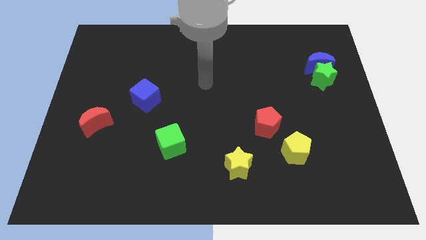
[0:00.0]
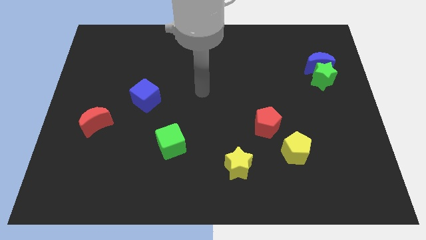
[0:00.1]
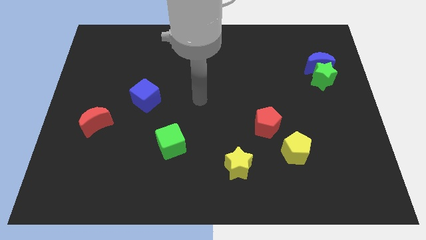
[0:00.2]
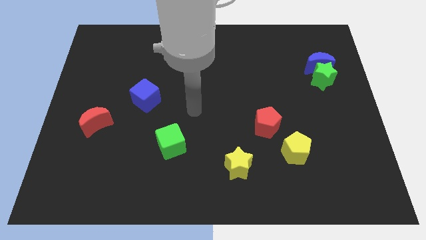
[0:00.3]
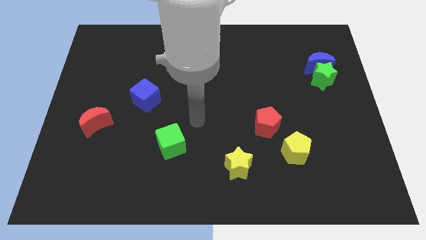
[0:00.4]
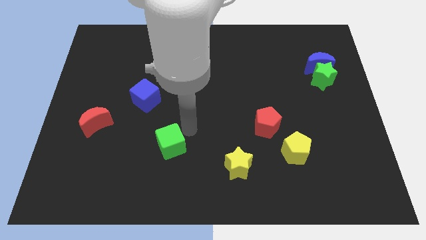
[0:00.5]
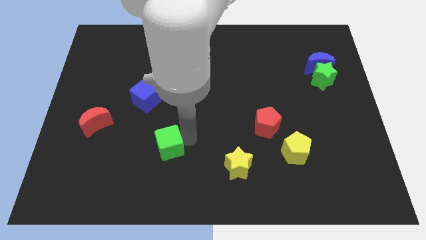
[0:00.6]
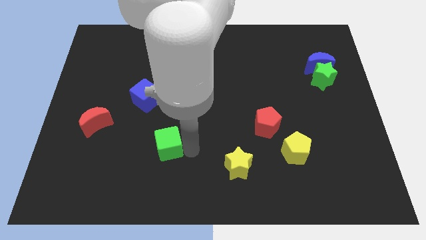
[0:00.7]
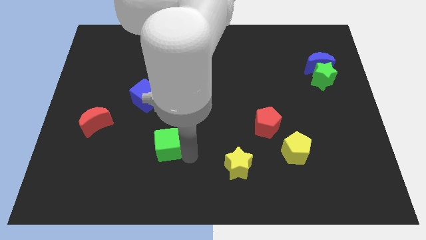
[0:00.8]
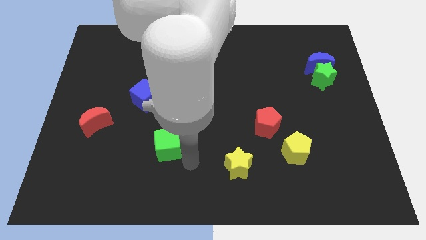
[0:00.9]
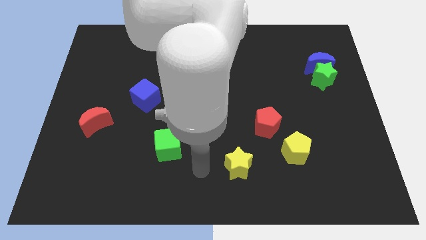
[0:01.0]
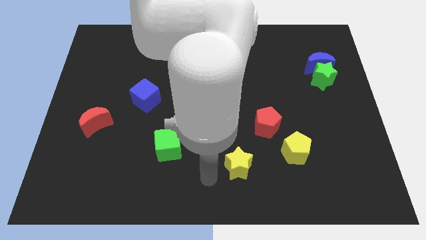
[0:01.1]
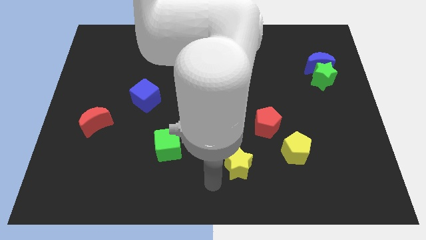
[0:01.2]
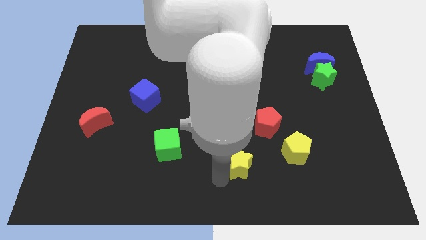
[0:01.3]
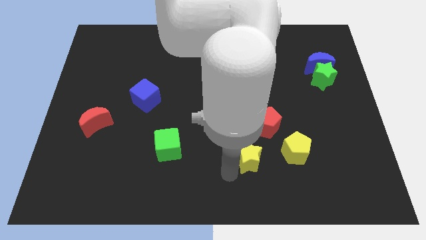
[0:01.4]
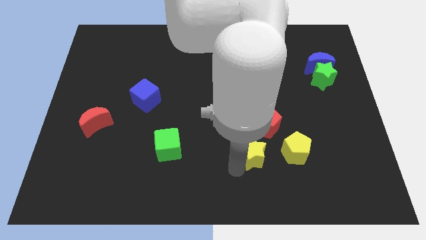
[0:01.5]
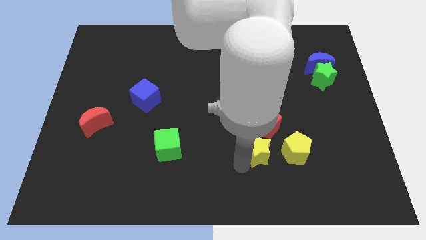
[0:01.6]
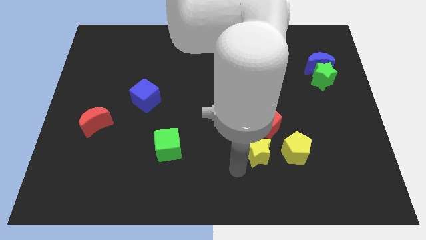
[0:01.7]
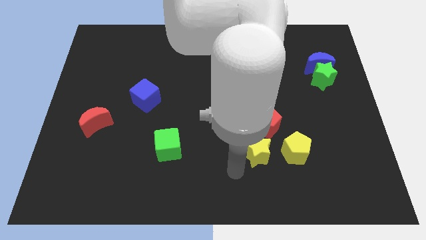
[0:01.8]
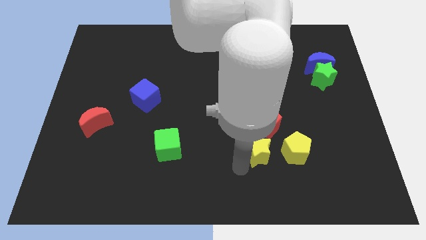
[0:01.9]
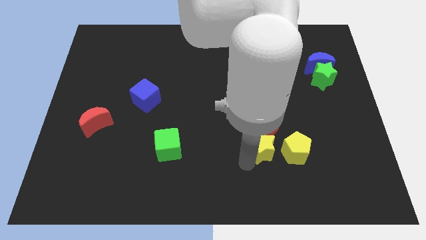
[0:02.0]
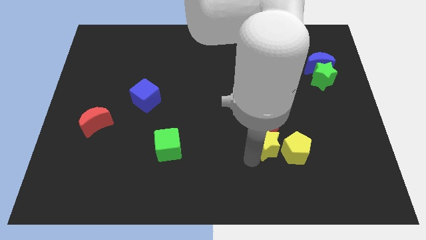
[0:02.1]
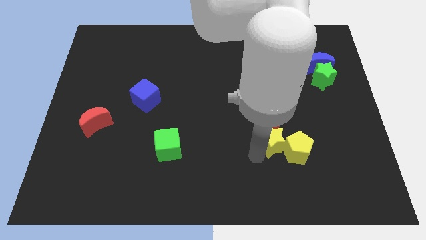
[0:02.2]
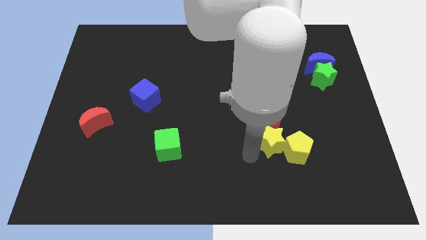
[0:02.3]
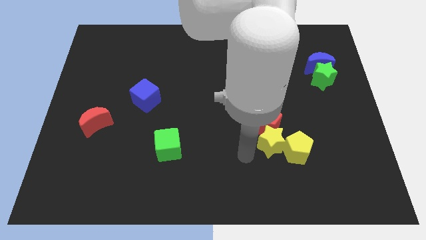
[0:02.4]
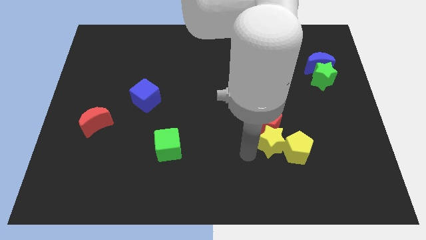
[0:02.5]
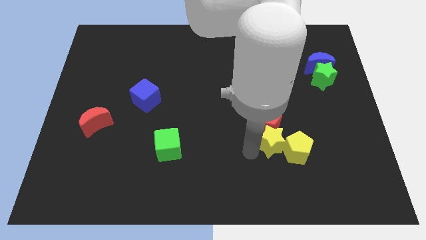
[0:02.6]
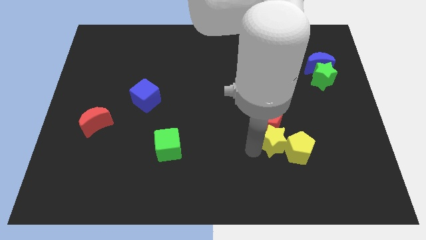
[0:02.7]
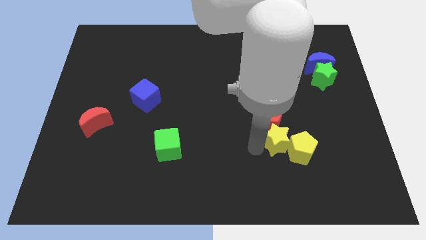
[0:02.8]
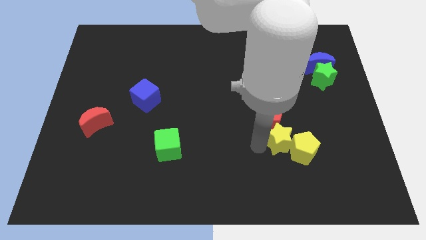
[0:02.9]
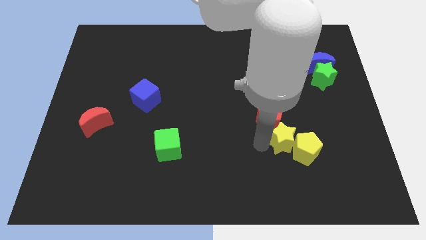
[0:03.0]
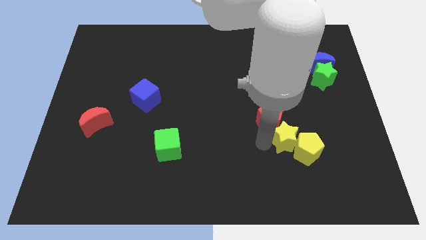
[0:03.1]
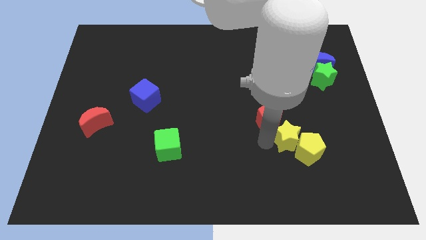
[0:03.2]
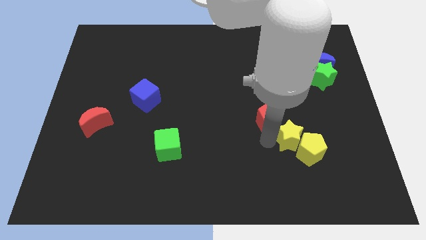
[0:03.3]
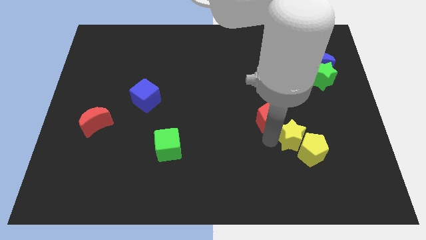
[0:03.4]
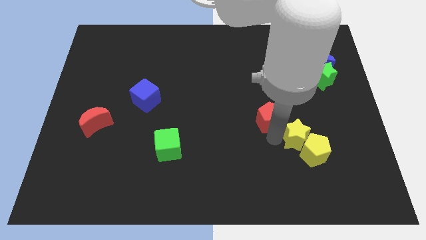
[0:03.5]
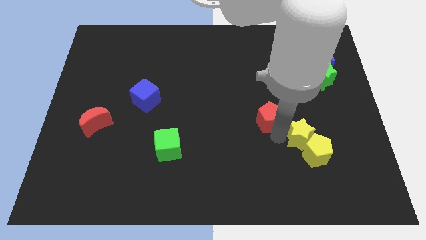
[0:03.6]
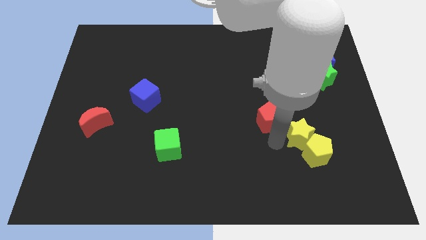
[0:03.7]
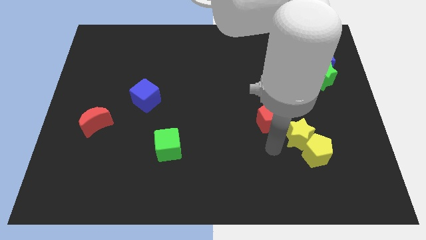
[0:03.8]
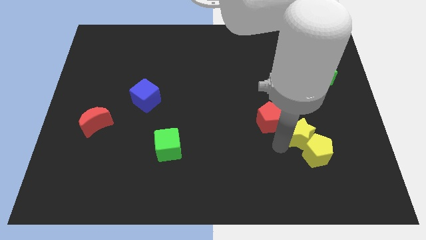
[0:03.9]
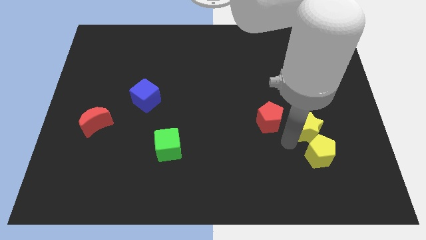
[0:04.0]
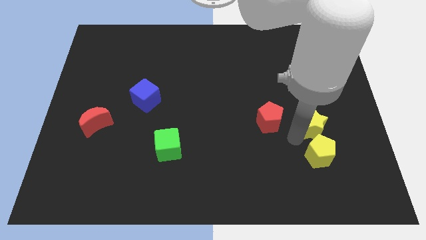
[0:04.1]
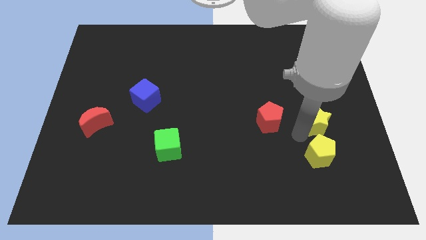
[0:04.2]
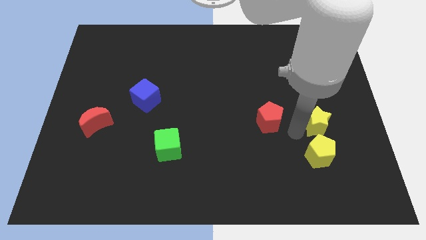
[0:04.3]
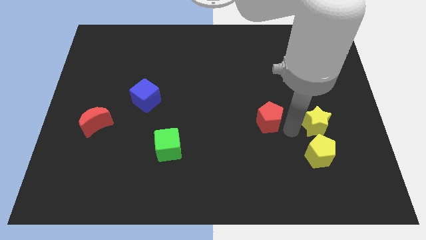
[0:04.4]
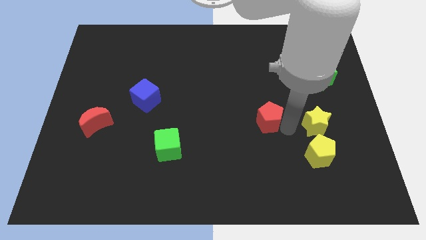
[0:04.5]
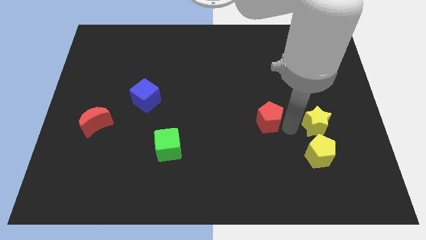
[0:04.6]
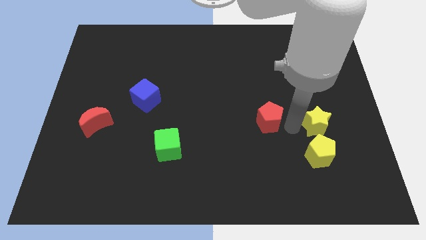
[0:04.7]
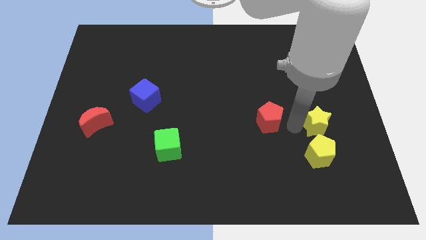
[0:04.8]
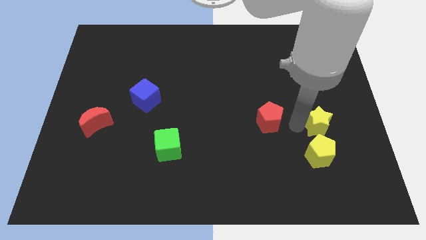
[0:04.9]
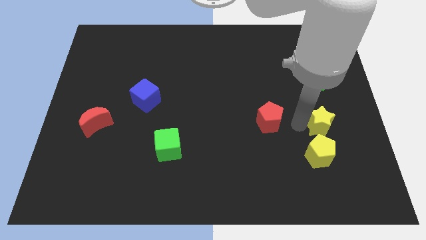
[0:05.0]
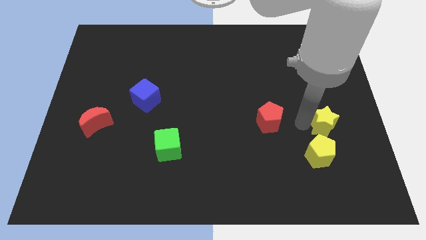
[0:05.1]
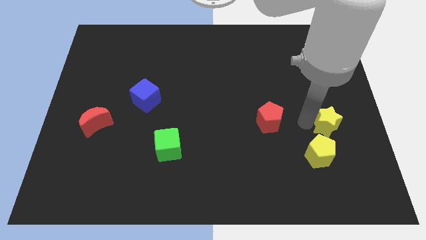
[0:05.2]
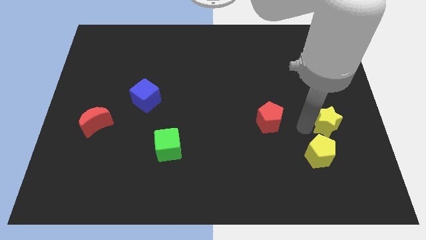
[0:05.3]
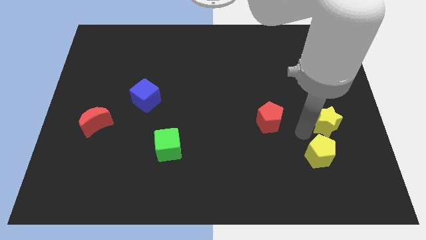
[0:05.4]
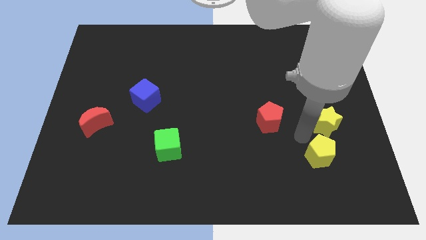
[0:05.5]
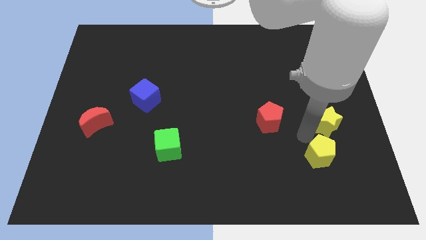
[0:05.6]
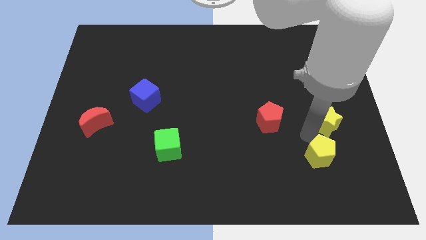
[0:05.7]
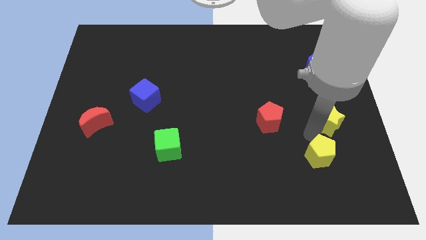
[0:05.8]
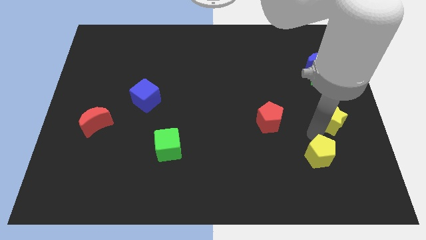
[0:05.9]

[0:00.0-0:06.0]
push the yellow star to the right side
